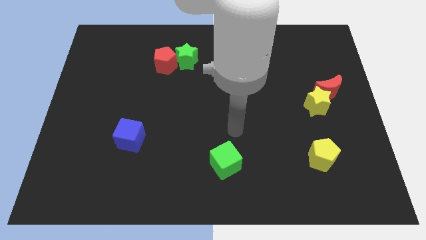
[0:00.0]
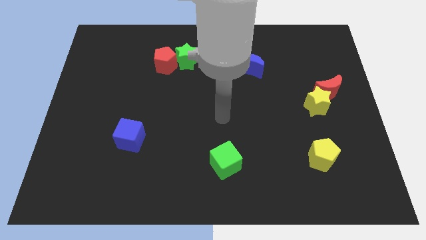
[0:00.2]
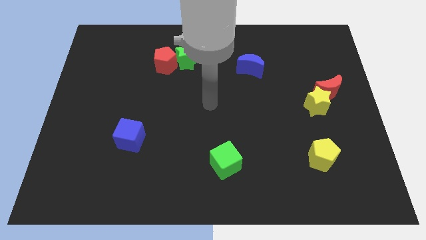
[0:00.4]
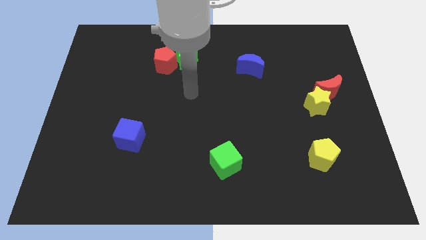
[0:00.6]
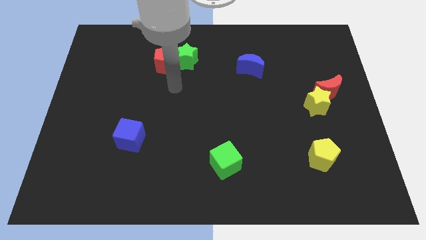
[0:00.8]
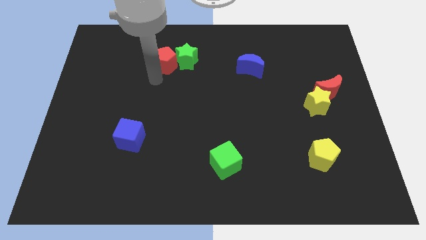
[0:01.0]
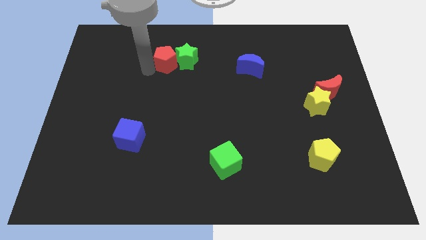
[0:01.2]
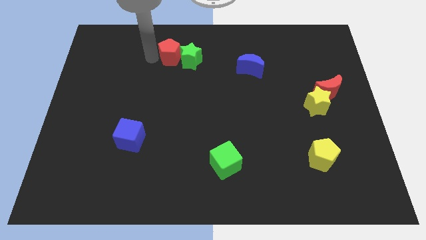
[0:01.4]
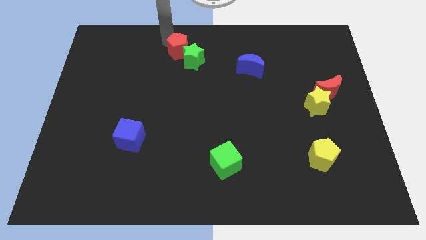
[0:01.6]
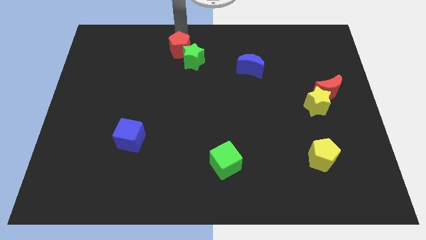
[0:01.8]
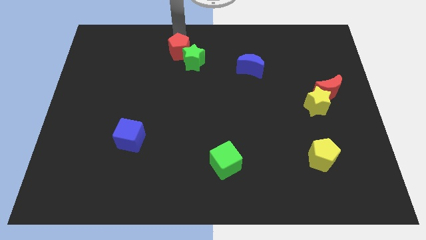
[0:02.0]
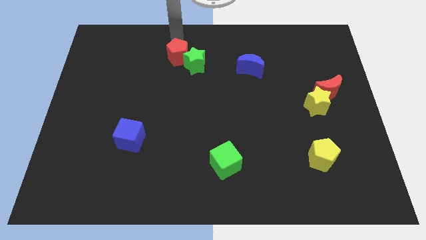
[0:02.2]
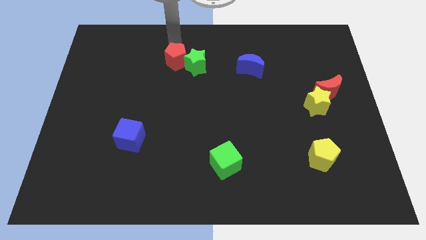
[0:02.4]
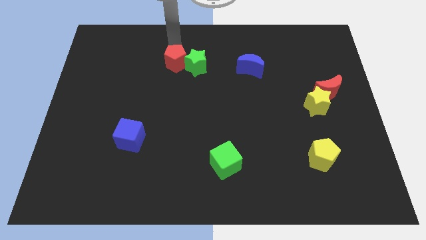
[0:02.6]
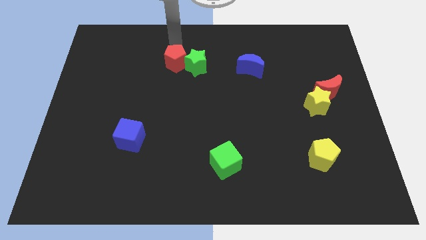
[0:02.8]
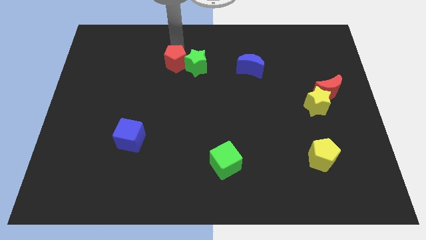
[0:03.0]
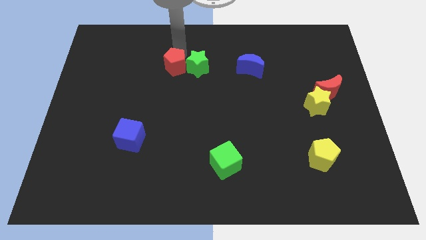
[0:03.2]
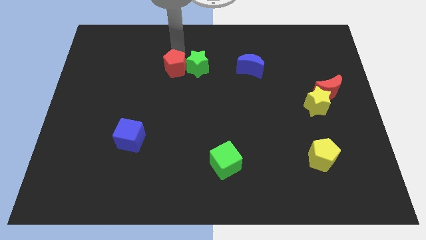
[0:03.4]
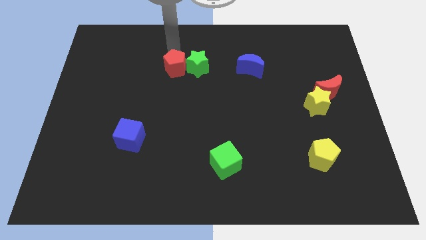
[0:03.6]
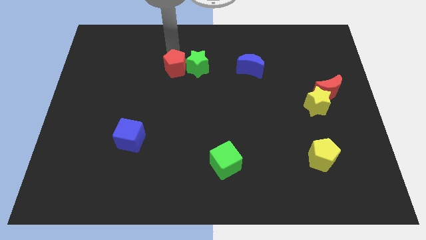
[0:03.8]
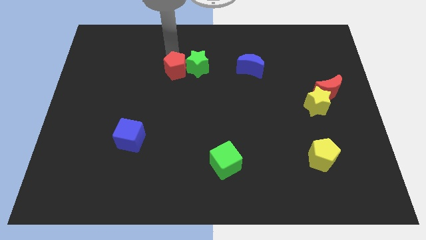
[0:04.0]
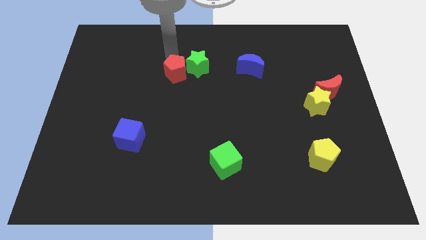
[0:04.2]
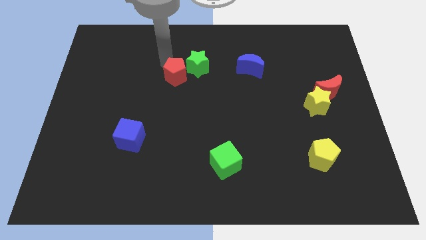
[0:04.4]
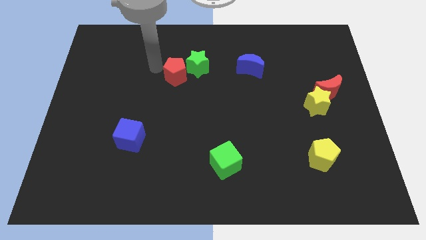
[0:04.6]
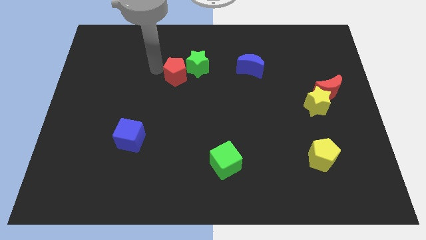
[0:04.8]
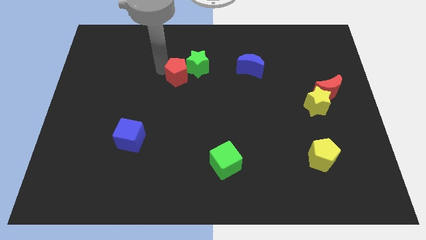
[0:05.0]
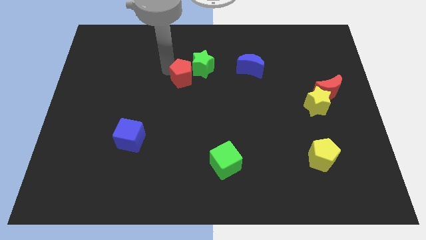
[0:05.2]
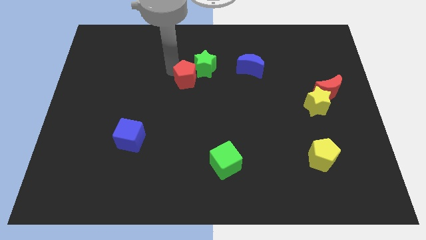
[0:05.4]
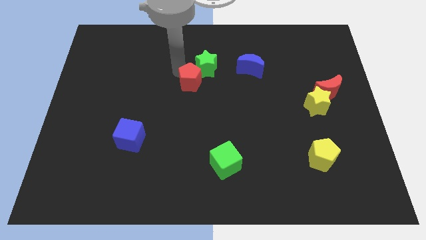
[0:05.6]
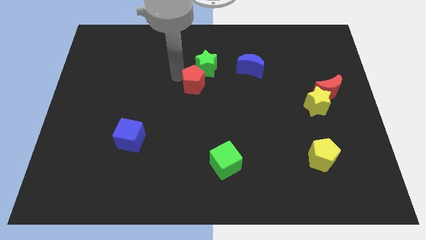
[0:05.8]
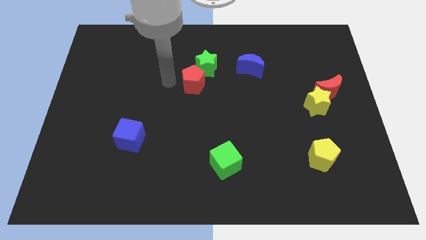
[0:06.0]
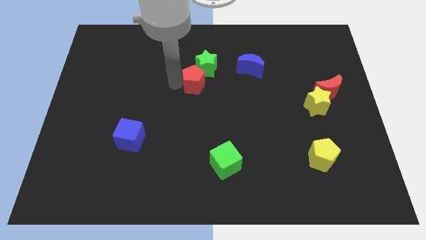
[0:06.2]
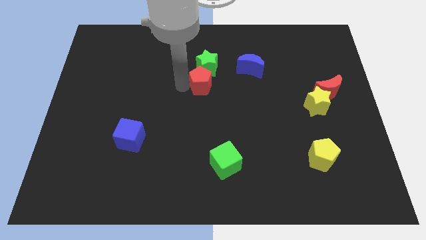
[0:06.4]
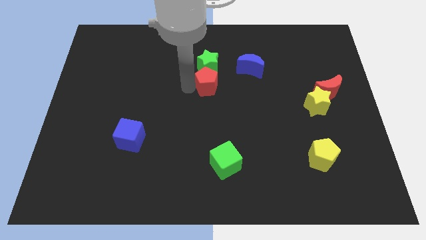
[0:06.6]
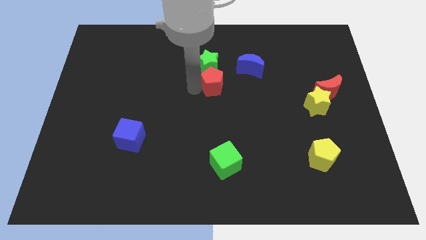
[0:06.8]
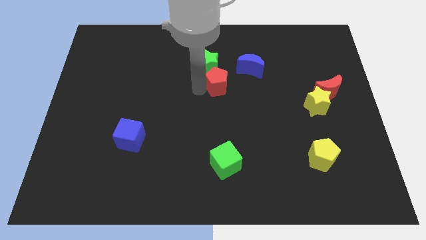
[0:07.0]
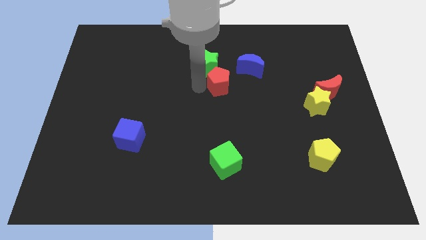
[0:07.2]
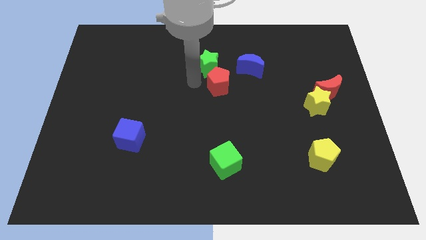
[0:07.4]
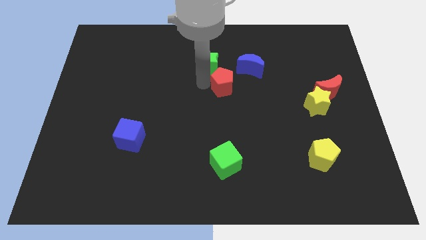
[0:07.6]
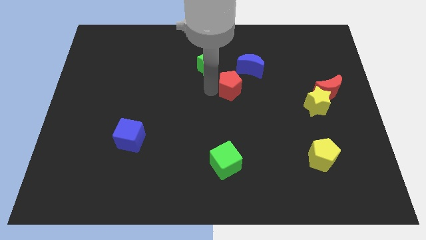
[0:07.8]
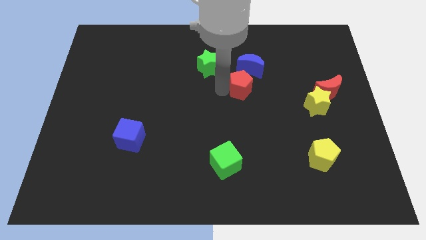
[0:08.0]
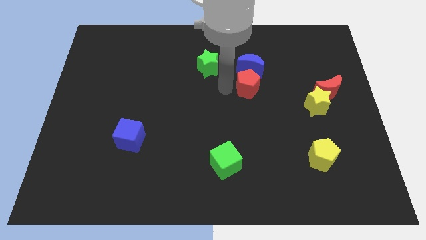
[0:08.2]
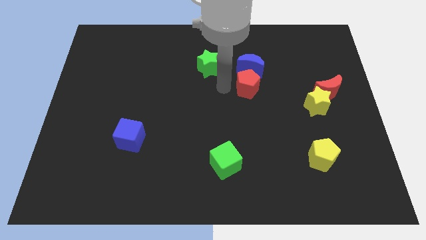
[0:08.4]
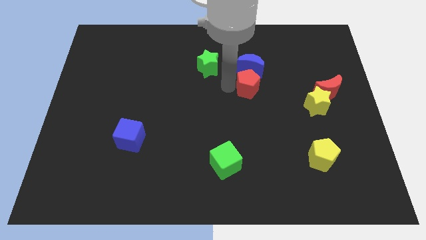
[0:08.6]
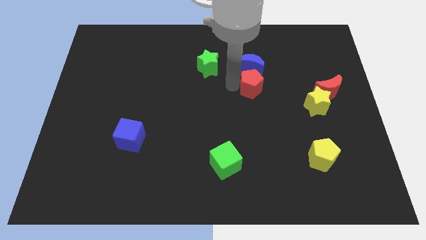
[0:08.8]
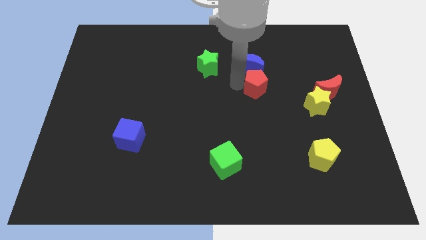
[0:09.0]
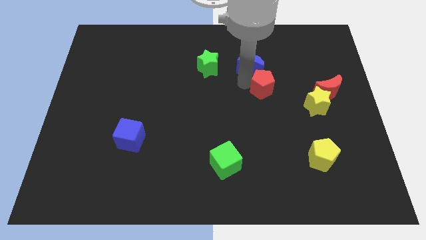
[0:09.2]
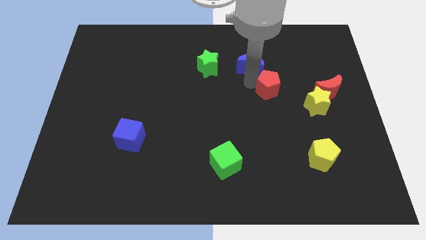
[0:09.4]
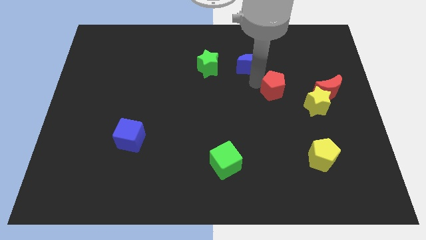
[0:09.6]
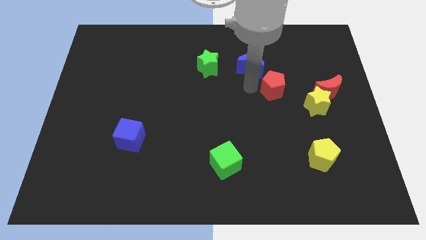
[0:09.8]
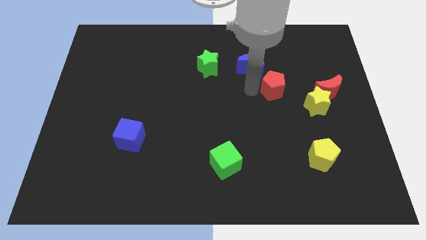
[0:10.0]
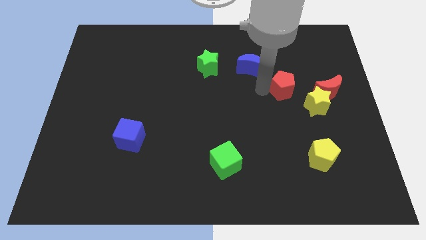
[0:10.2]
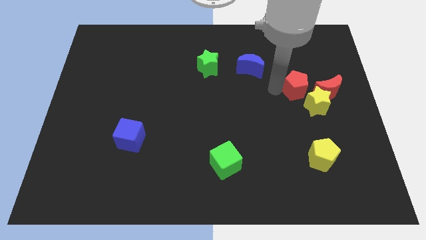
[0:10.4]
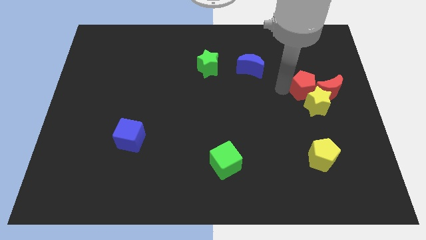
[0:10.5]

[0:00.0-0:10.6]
move the red pentagon towards the red moon

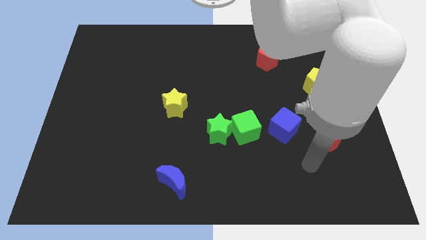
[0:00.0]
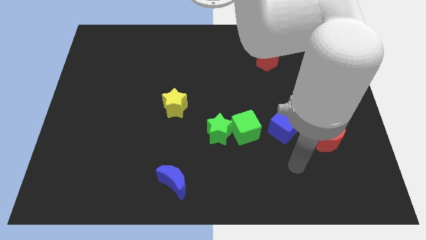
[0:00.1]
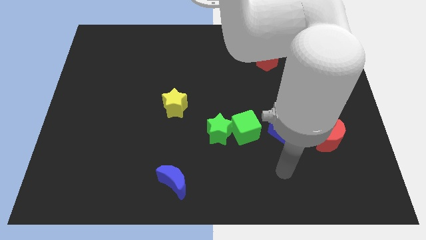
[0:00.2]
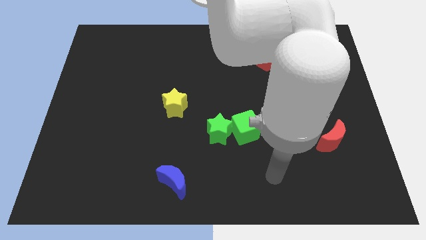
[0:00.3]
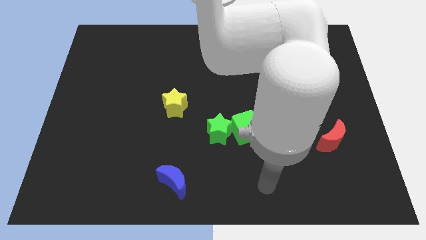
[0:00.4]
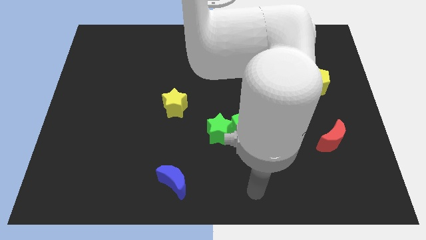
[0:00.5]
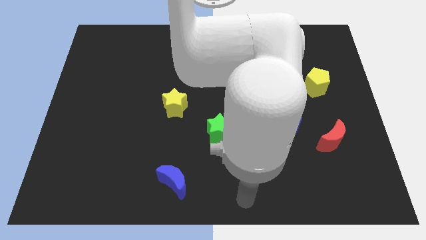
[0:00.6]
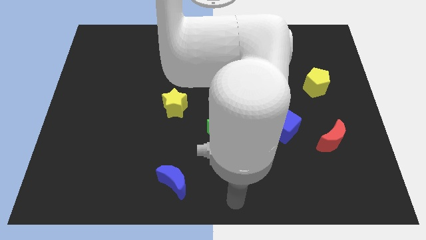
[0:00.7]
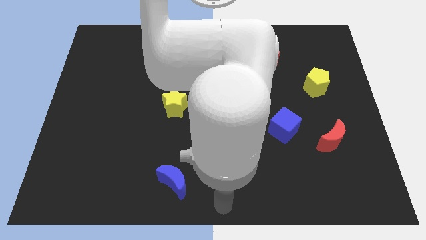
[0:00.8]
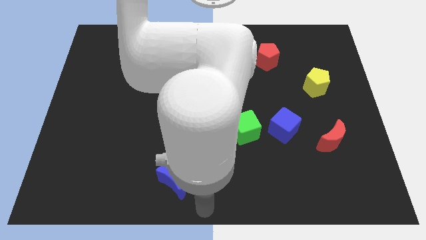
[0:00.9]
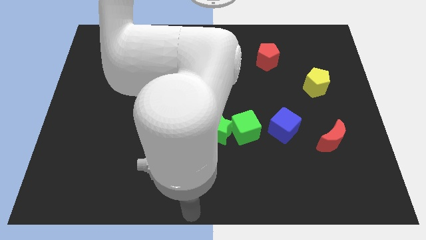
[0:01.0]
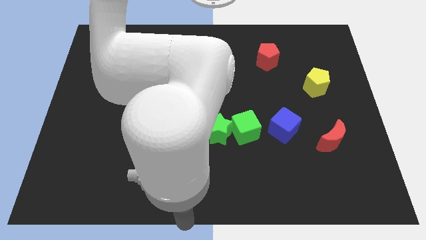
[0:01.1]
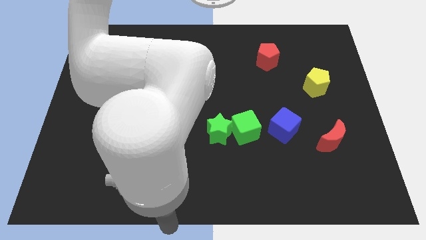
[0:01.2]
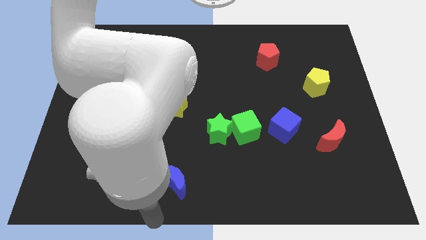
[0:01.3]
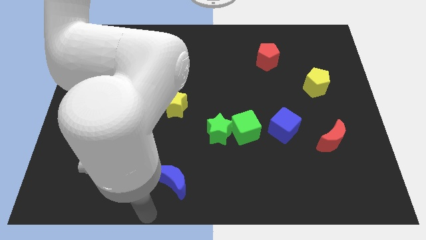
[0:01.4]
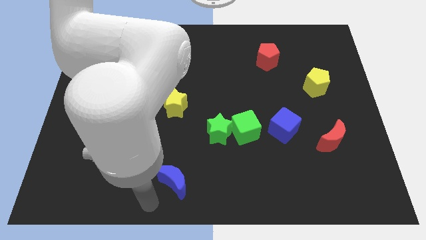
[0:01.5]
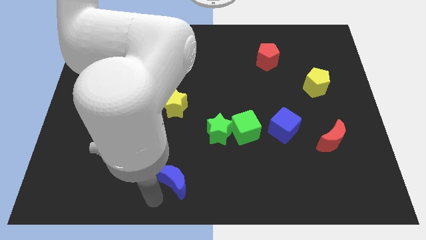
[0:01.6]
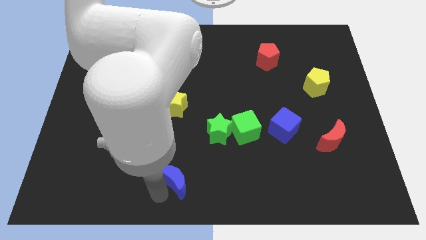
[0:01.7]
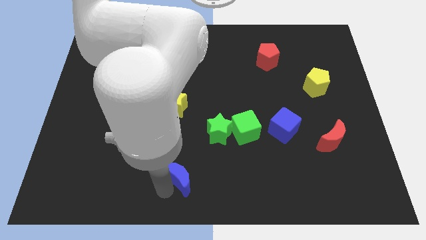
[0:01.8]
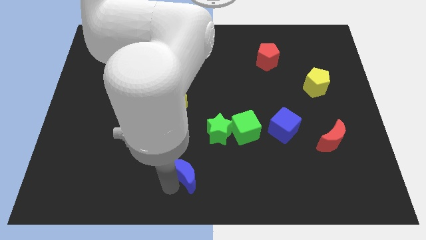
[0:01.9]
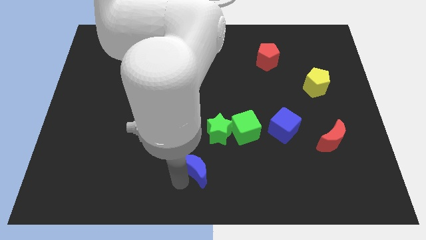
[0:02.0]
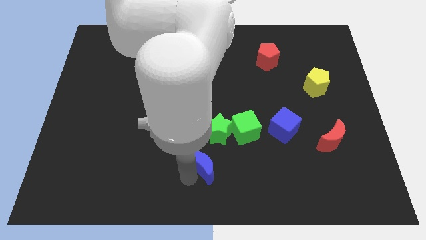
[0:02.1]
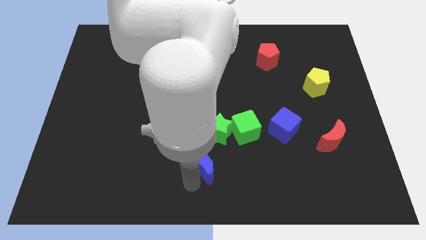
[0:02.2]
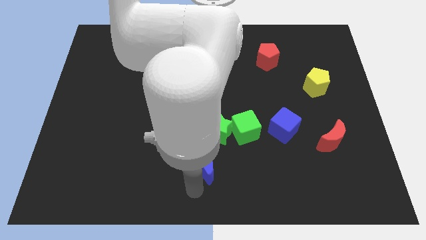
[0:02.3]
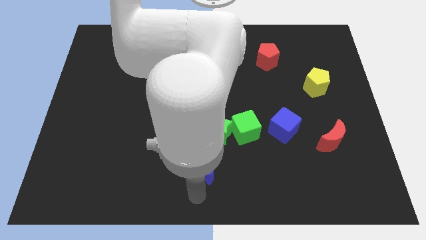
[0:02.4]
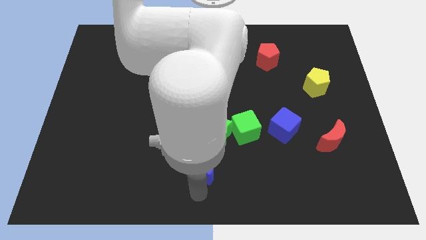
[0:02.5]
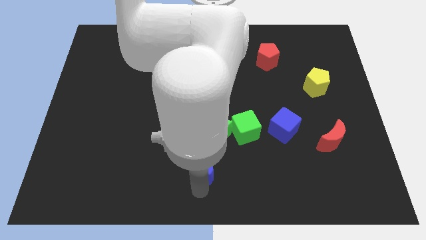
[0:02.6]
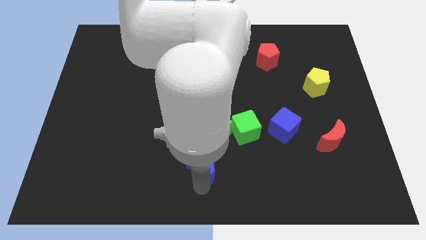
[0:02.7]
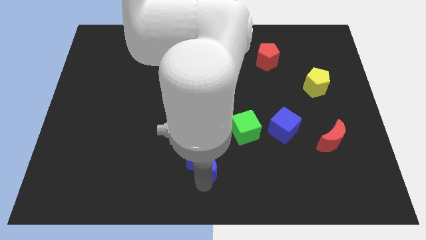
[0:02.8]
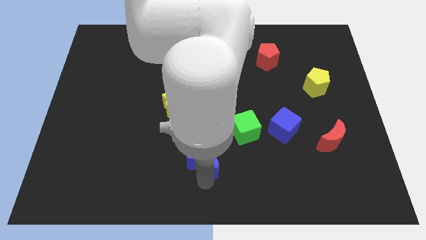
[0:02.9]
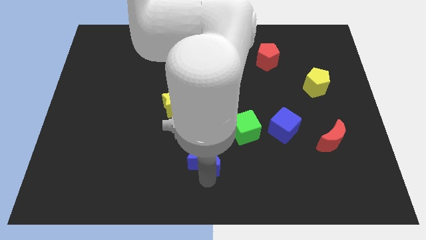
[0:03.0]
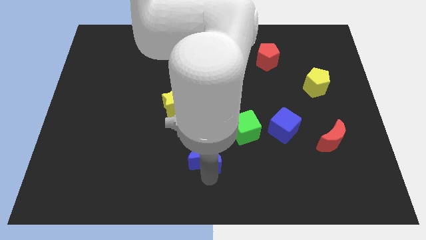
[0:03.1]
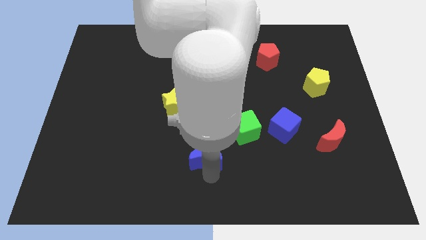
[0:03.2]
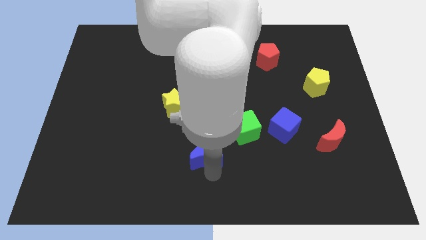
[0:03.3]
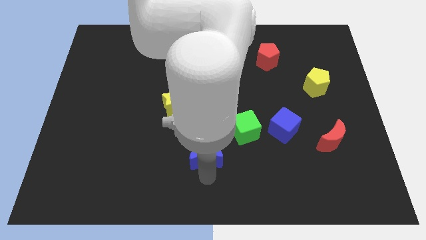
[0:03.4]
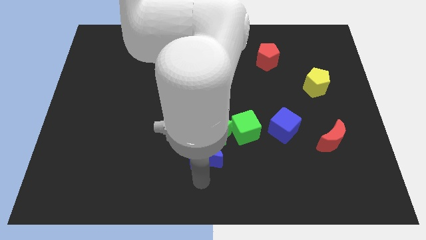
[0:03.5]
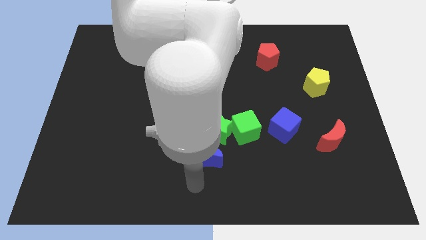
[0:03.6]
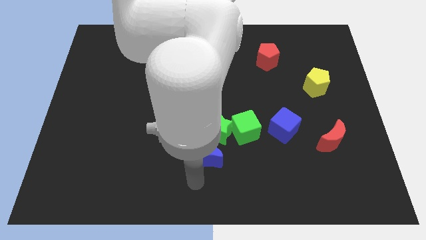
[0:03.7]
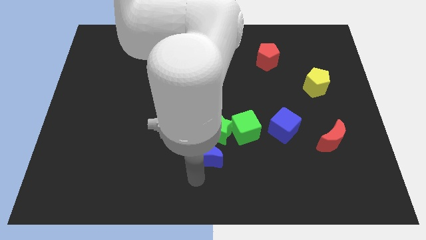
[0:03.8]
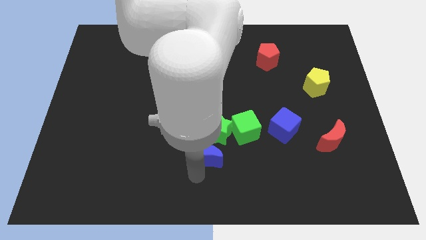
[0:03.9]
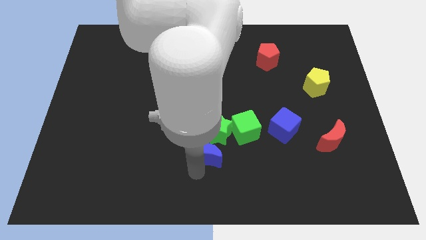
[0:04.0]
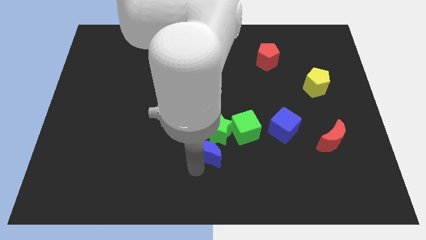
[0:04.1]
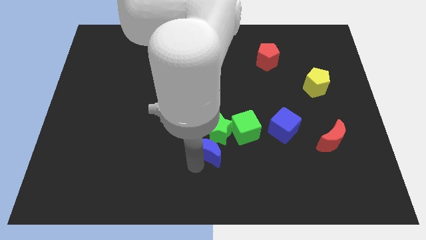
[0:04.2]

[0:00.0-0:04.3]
move the blue moon close to the green star
